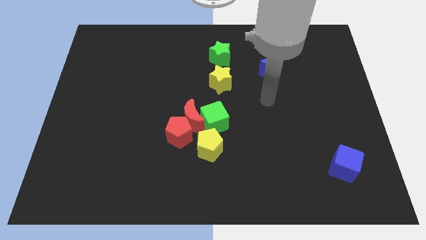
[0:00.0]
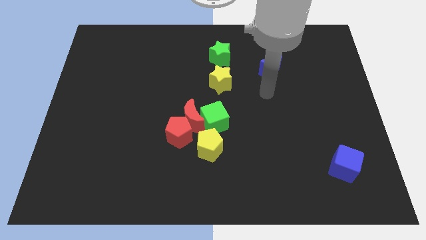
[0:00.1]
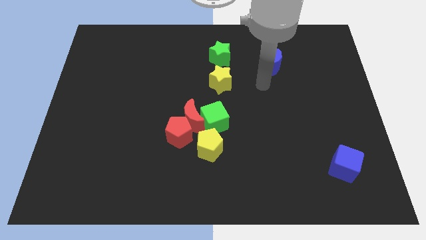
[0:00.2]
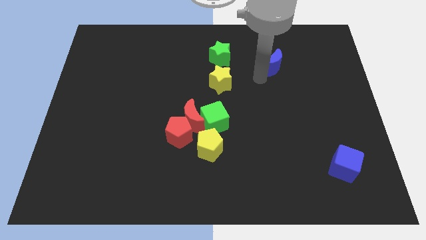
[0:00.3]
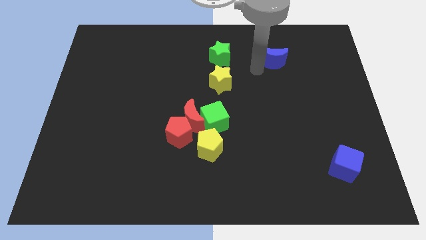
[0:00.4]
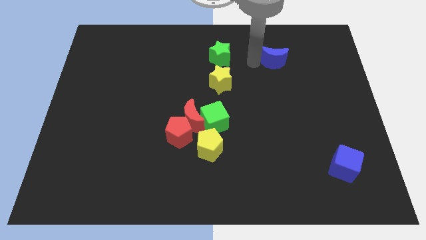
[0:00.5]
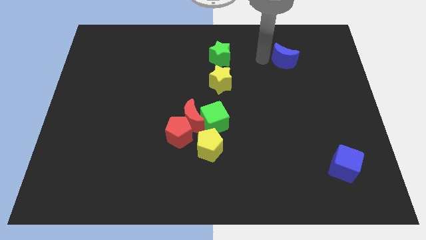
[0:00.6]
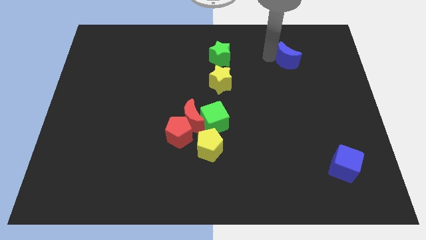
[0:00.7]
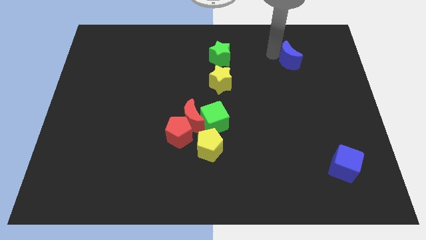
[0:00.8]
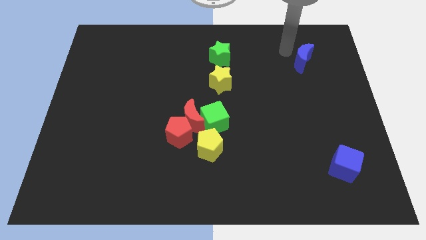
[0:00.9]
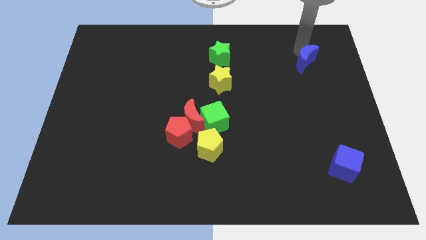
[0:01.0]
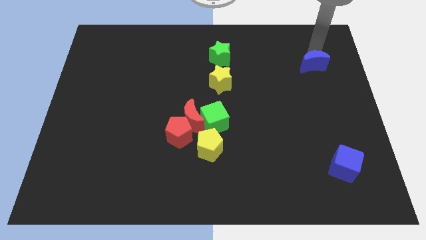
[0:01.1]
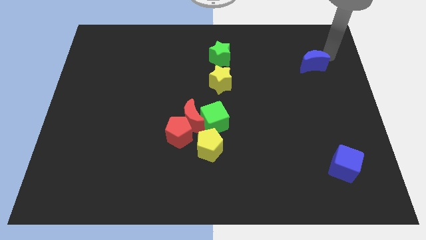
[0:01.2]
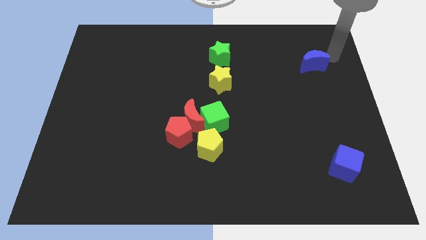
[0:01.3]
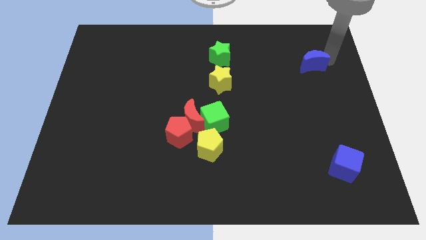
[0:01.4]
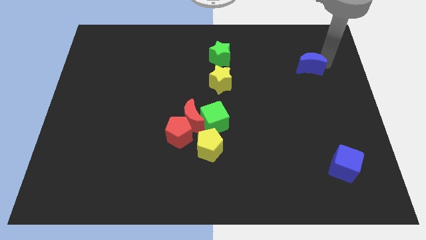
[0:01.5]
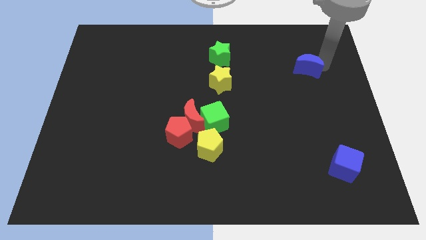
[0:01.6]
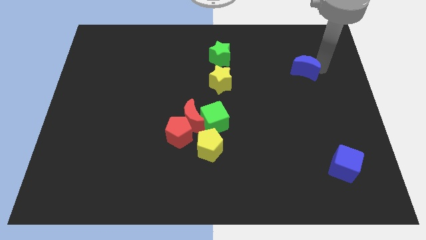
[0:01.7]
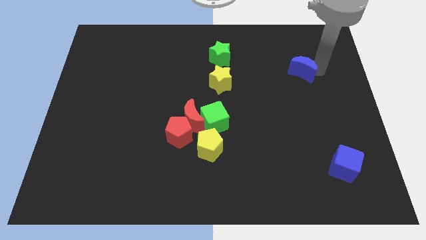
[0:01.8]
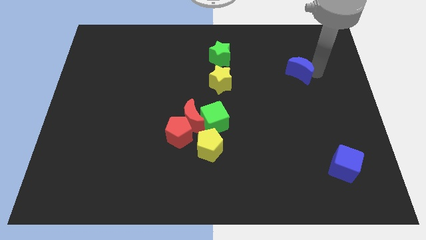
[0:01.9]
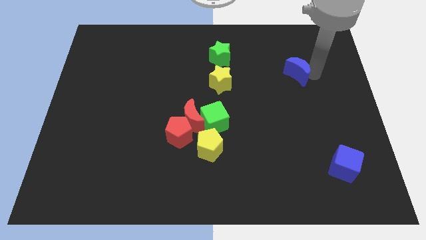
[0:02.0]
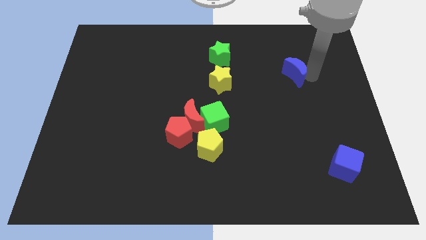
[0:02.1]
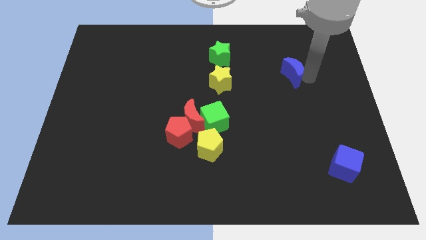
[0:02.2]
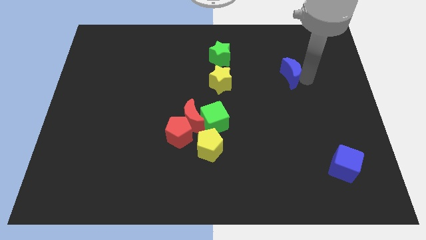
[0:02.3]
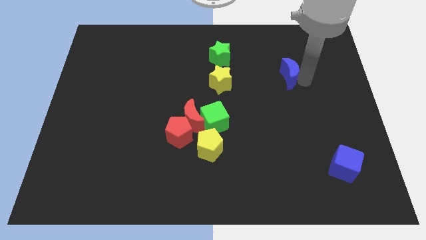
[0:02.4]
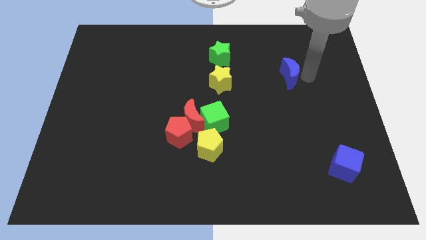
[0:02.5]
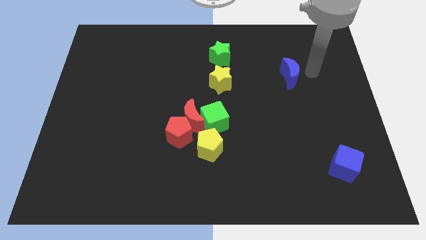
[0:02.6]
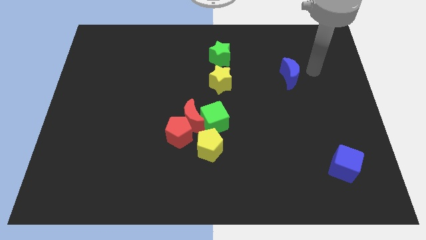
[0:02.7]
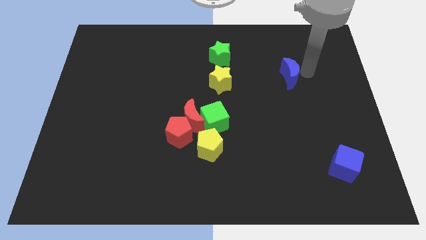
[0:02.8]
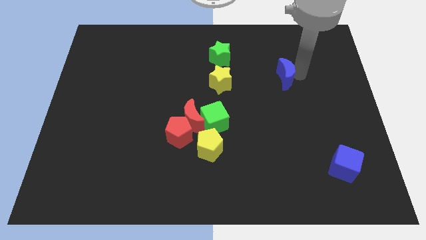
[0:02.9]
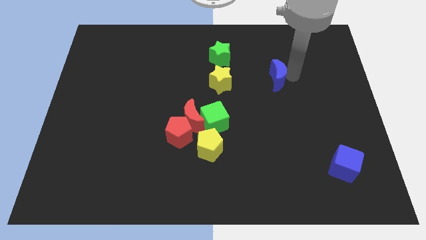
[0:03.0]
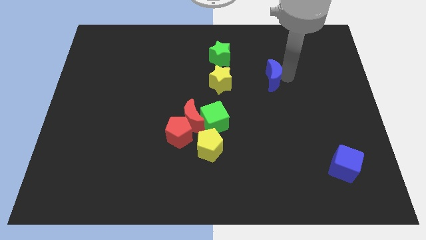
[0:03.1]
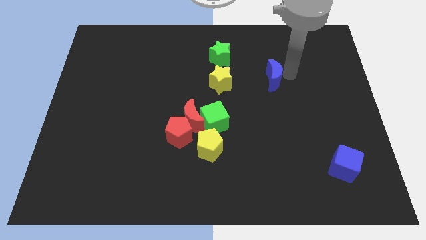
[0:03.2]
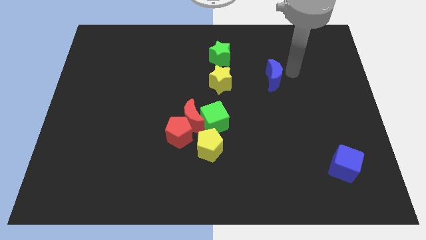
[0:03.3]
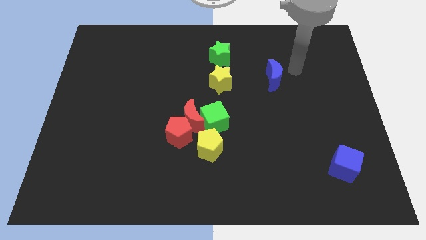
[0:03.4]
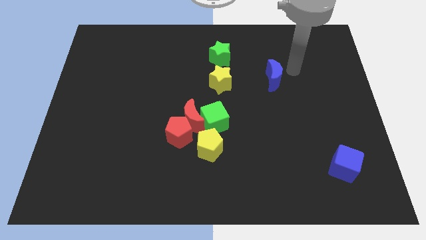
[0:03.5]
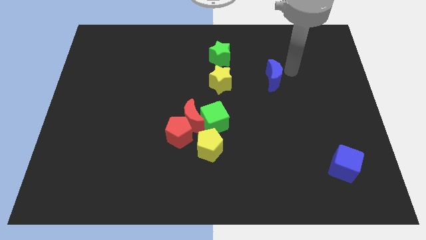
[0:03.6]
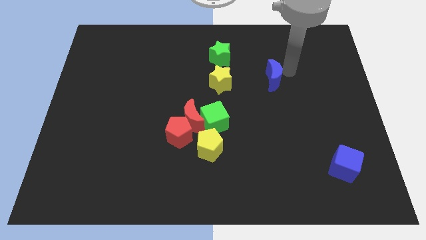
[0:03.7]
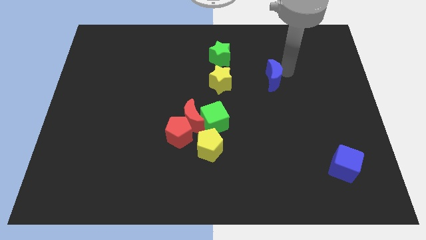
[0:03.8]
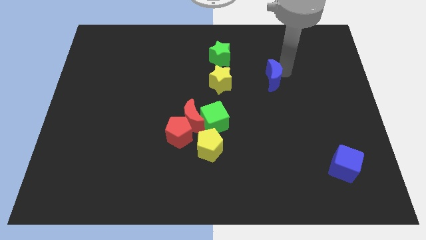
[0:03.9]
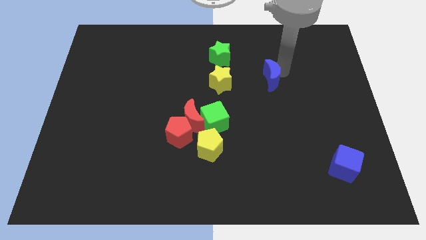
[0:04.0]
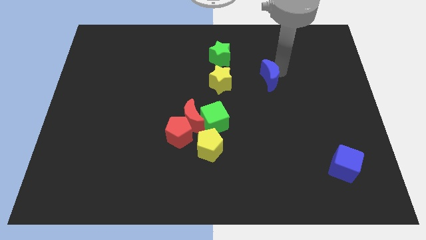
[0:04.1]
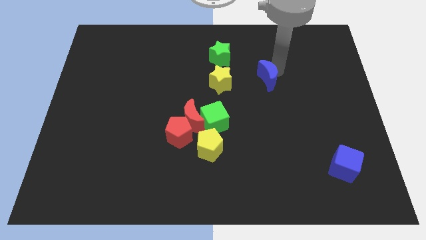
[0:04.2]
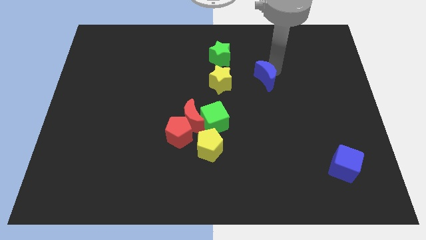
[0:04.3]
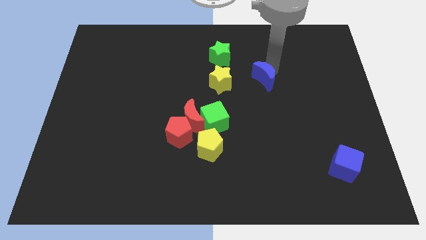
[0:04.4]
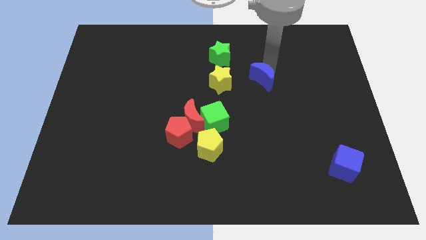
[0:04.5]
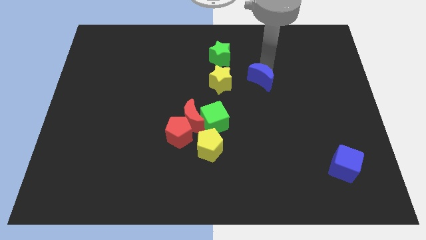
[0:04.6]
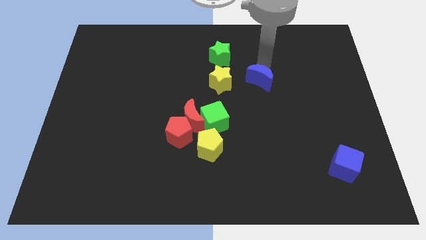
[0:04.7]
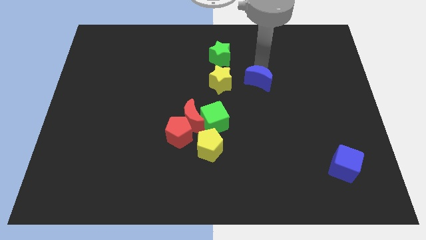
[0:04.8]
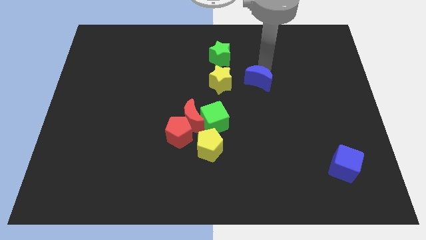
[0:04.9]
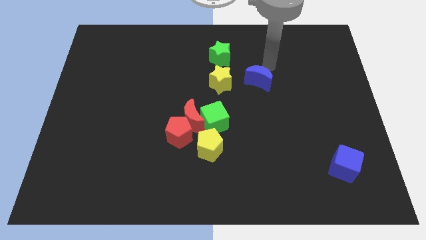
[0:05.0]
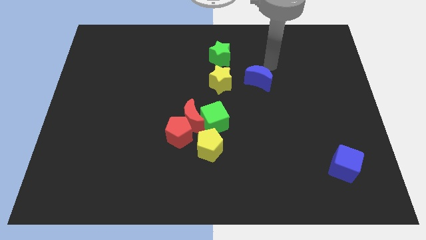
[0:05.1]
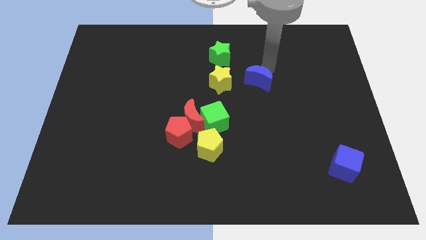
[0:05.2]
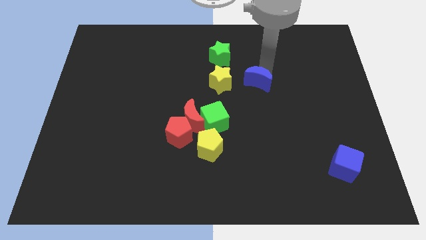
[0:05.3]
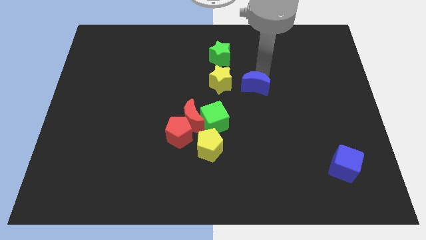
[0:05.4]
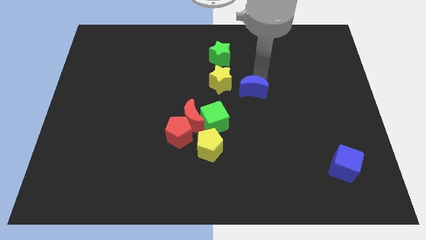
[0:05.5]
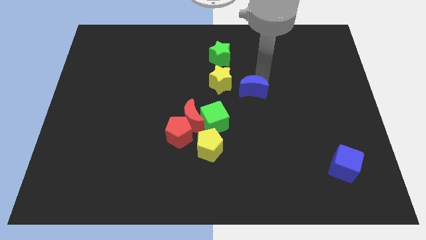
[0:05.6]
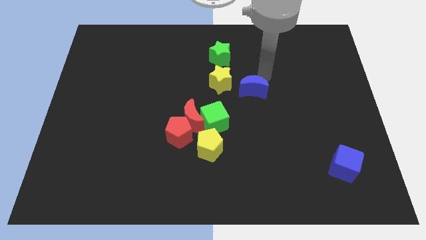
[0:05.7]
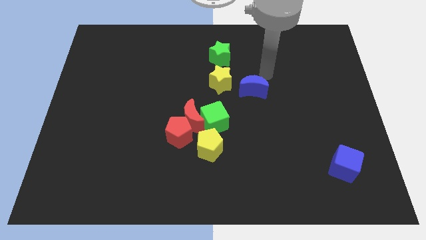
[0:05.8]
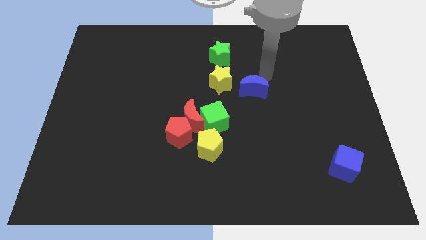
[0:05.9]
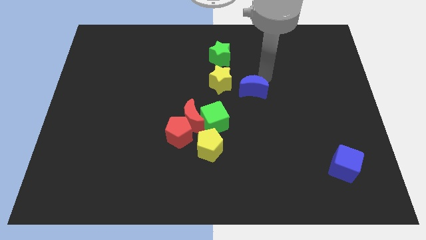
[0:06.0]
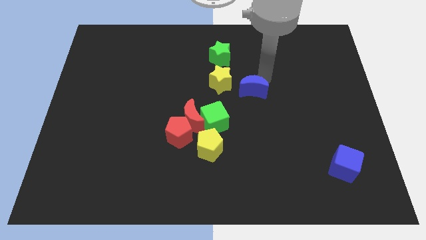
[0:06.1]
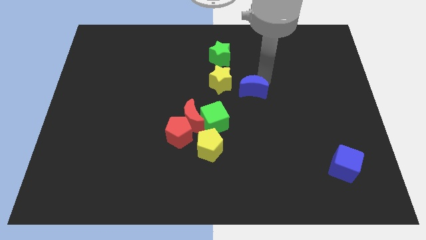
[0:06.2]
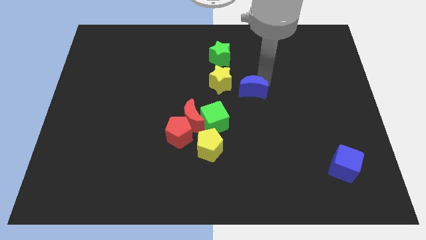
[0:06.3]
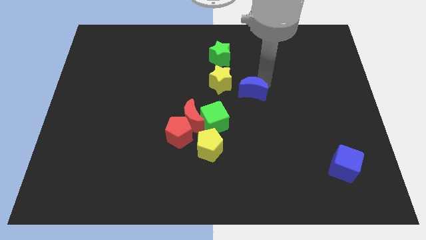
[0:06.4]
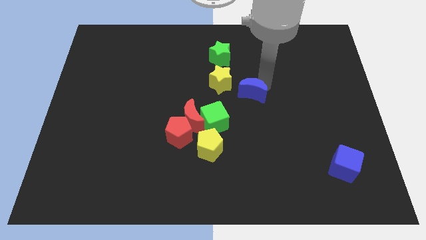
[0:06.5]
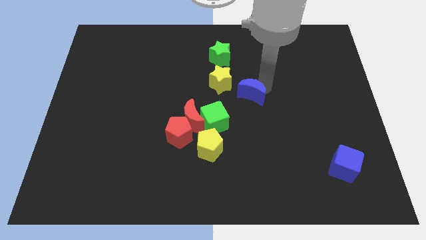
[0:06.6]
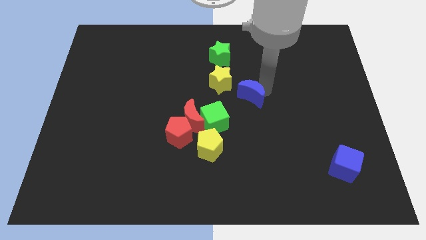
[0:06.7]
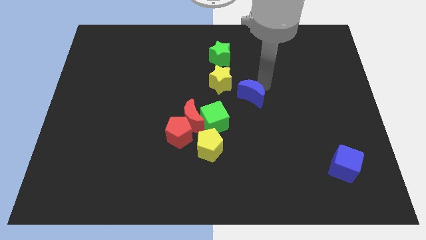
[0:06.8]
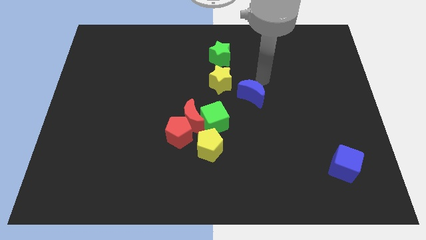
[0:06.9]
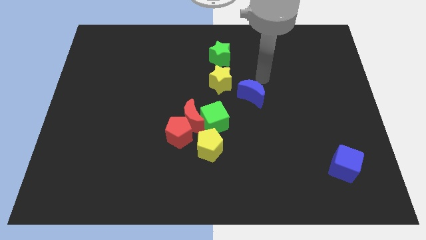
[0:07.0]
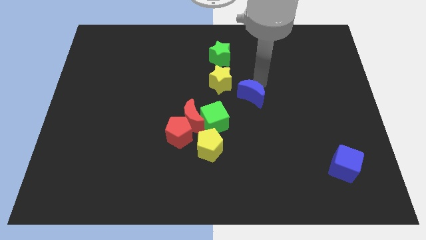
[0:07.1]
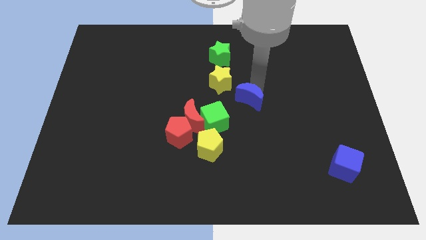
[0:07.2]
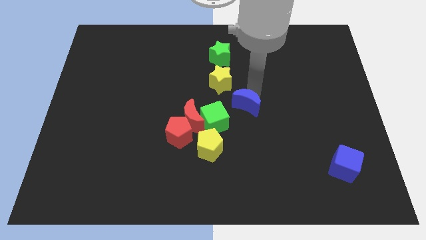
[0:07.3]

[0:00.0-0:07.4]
put the blue moon to the right of the red moon
